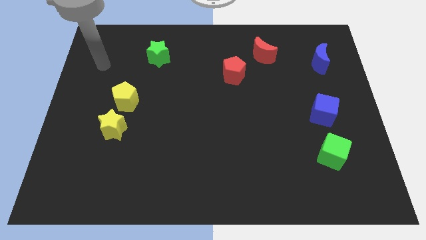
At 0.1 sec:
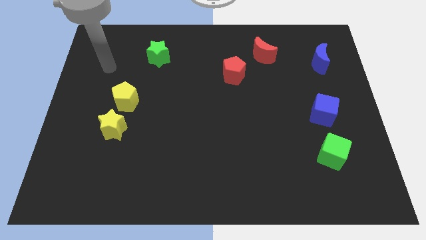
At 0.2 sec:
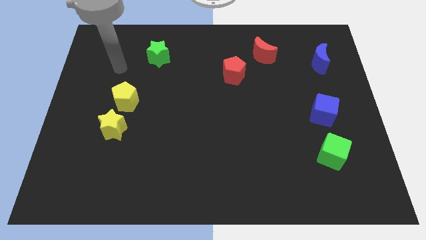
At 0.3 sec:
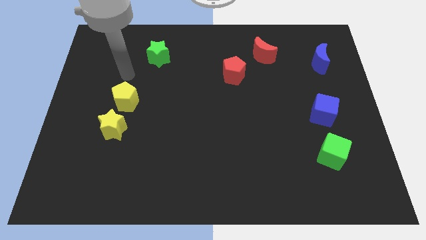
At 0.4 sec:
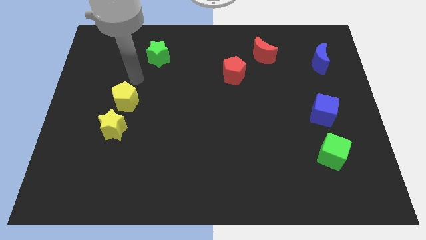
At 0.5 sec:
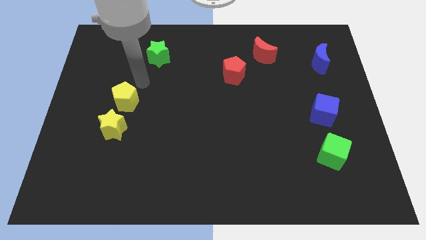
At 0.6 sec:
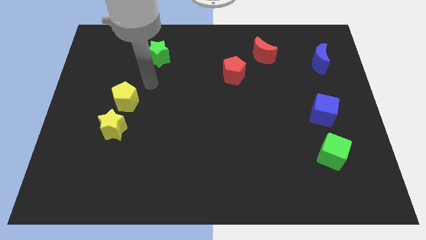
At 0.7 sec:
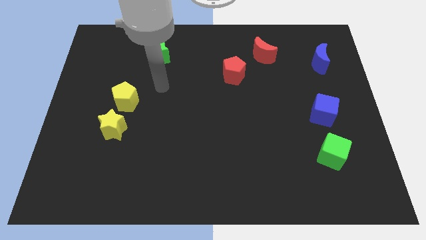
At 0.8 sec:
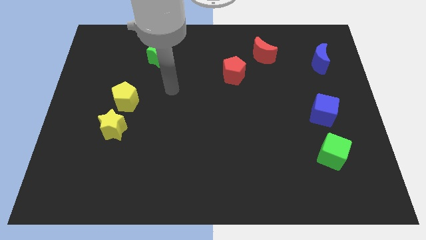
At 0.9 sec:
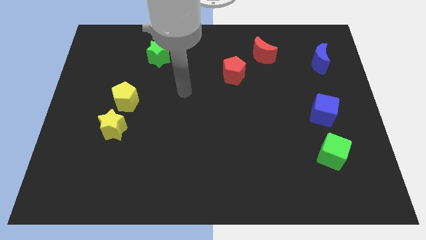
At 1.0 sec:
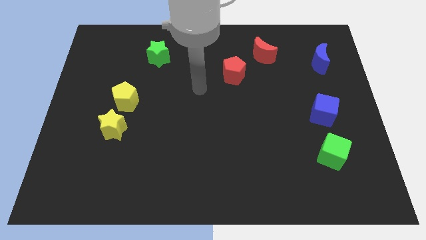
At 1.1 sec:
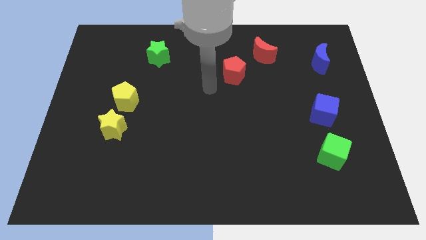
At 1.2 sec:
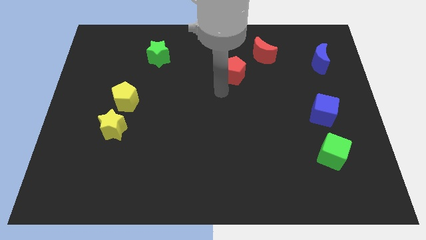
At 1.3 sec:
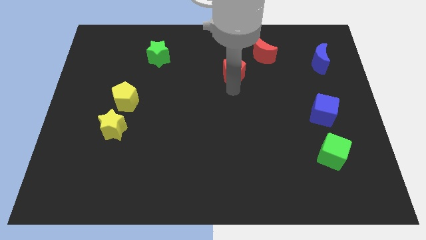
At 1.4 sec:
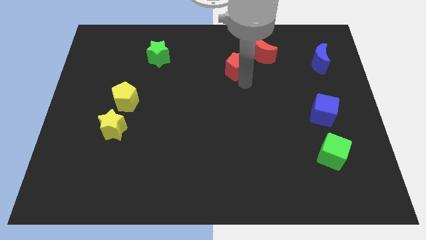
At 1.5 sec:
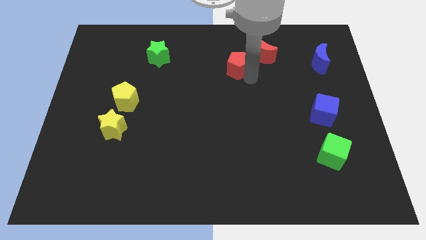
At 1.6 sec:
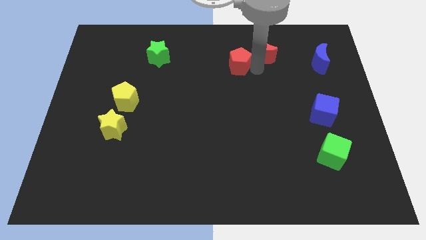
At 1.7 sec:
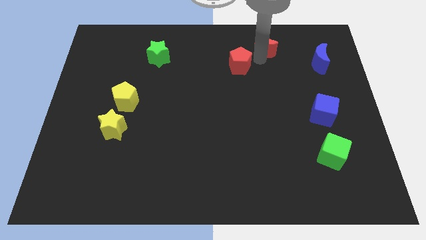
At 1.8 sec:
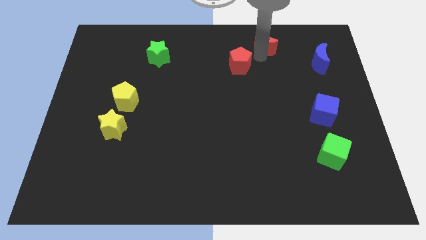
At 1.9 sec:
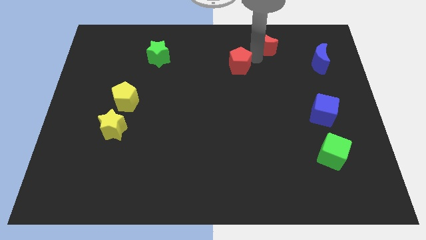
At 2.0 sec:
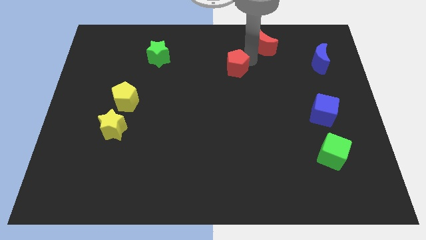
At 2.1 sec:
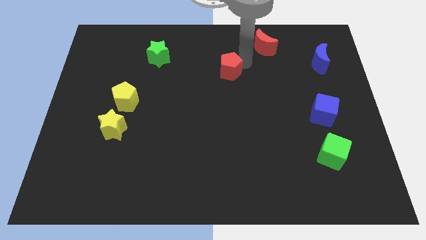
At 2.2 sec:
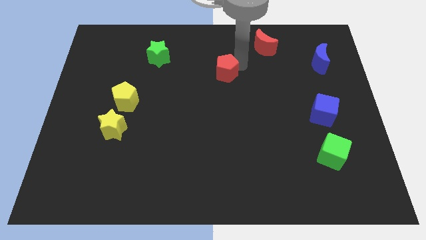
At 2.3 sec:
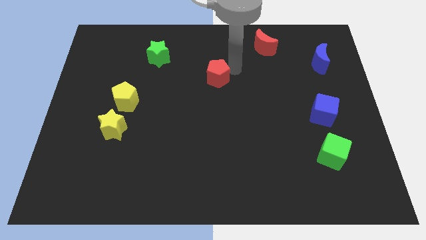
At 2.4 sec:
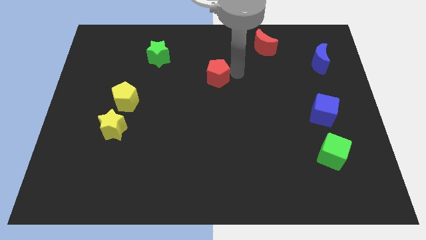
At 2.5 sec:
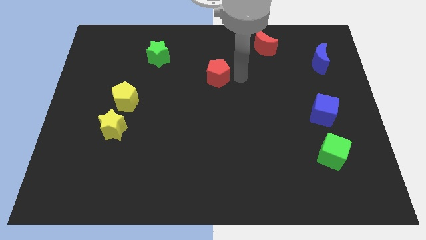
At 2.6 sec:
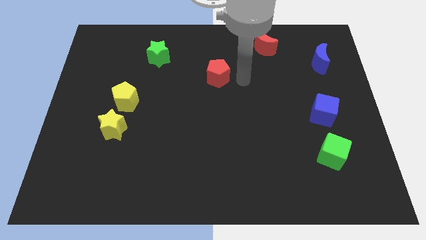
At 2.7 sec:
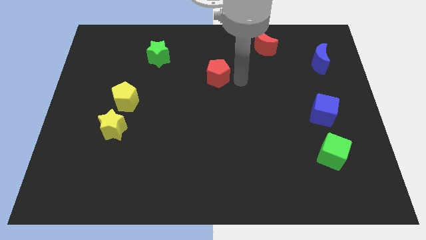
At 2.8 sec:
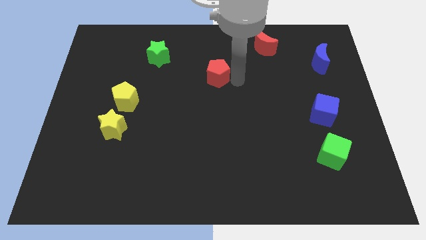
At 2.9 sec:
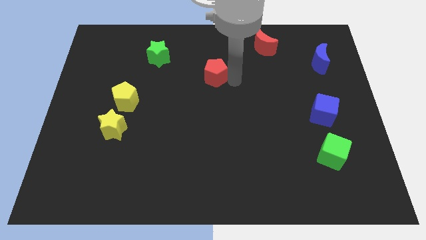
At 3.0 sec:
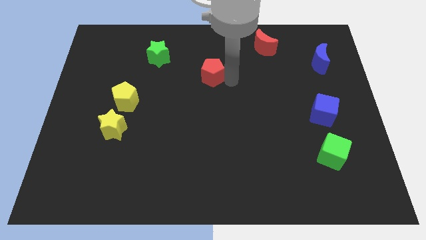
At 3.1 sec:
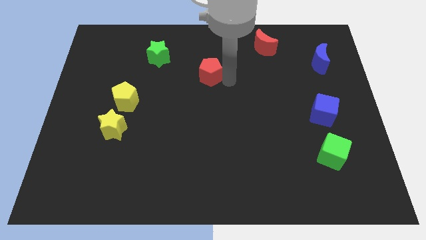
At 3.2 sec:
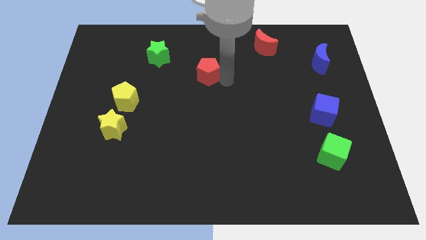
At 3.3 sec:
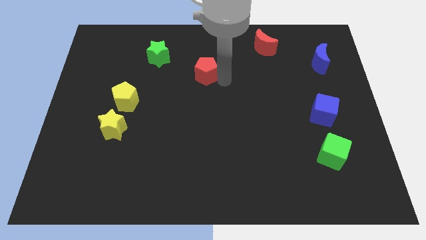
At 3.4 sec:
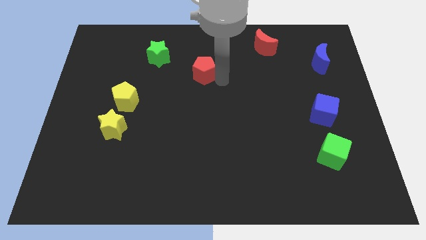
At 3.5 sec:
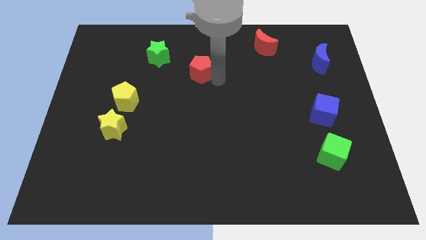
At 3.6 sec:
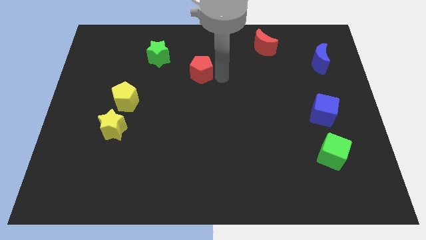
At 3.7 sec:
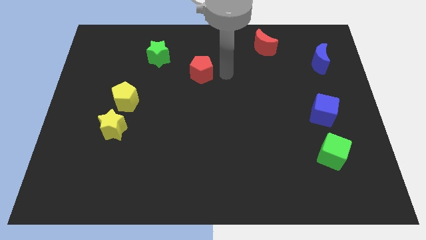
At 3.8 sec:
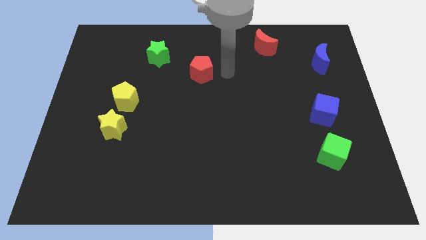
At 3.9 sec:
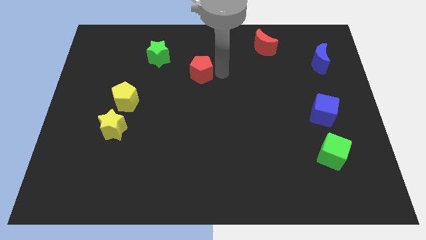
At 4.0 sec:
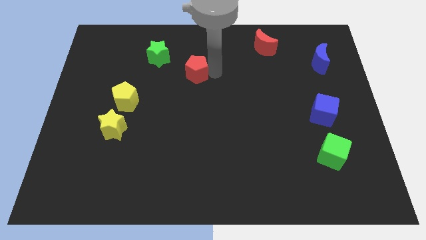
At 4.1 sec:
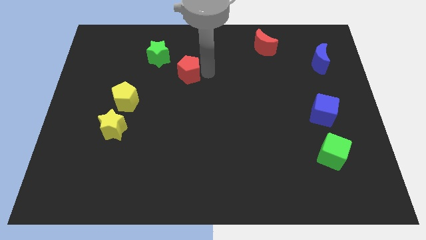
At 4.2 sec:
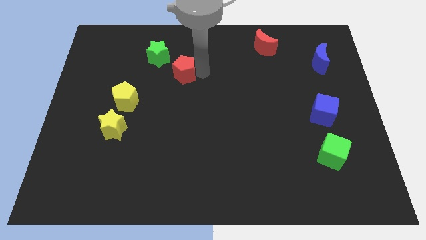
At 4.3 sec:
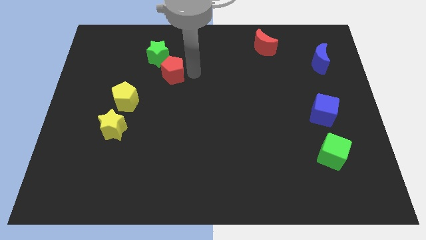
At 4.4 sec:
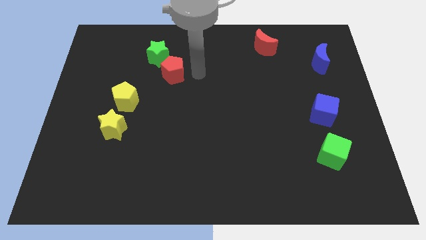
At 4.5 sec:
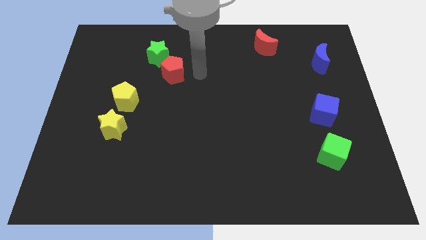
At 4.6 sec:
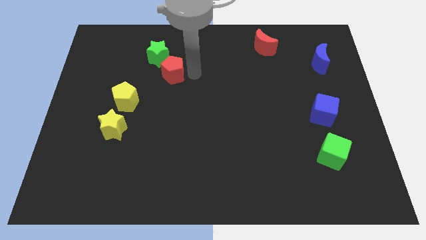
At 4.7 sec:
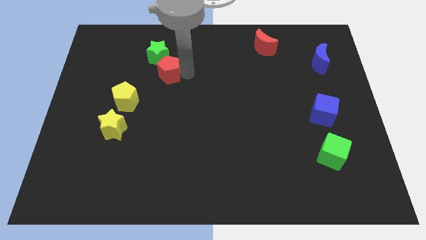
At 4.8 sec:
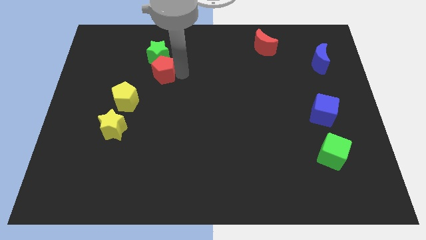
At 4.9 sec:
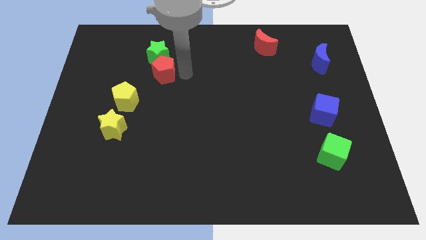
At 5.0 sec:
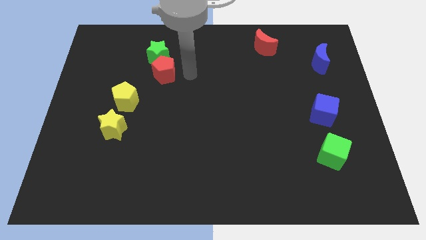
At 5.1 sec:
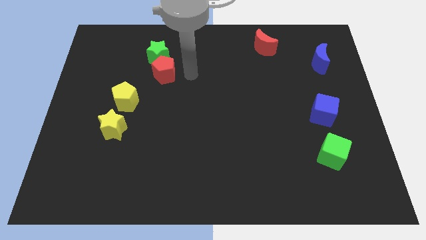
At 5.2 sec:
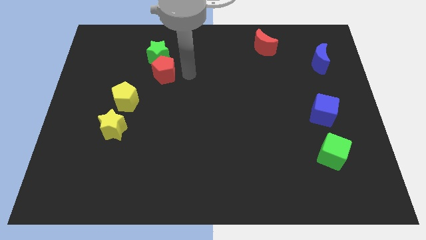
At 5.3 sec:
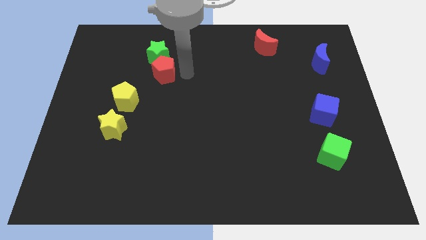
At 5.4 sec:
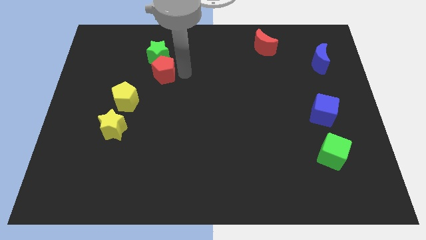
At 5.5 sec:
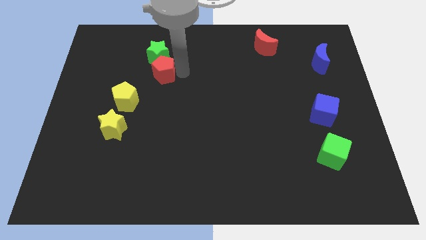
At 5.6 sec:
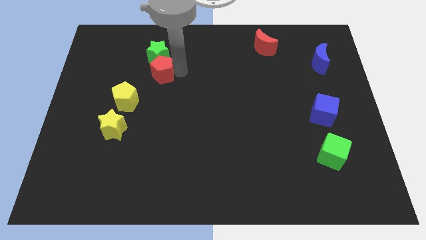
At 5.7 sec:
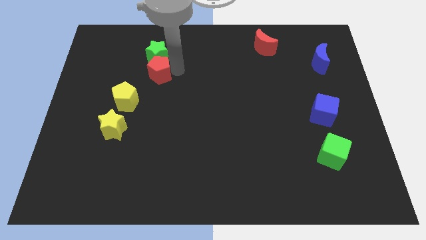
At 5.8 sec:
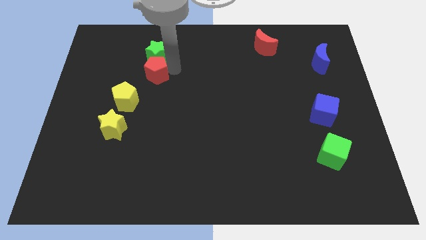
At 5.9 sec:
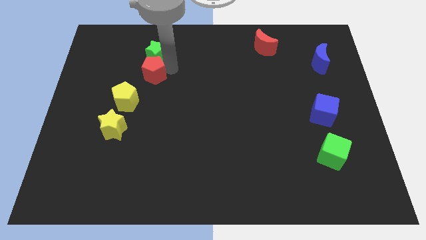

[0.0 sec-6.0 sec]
push the red pentagon to the left

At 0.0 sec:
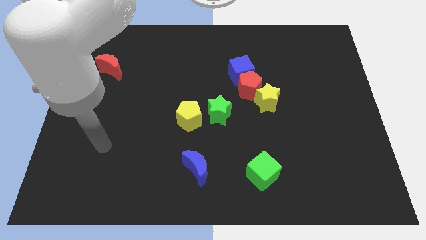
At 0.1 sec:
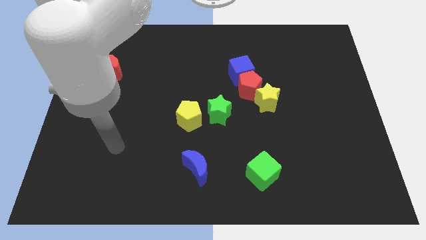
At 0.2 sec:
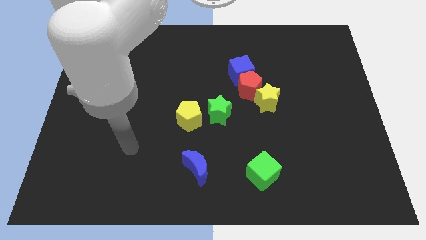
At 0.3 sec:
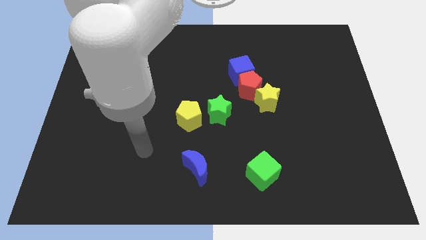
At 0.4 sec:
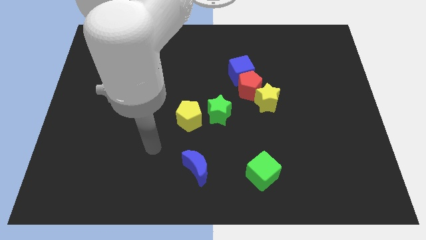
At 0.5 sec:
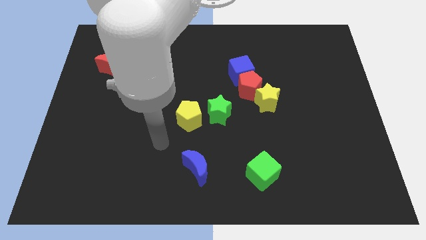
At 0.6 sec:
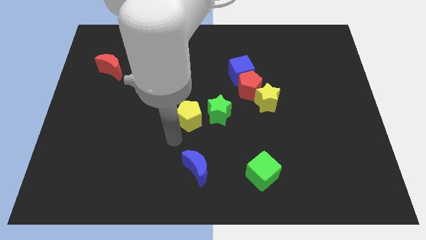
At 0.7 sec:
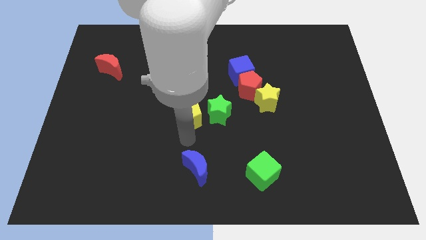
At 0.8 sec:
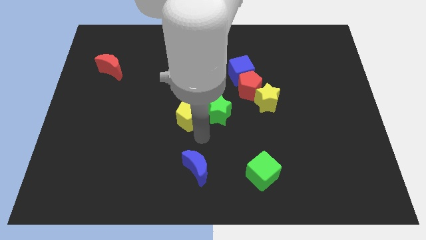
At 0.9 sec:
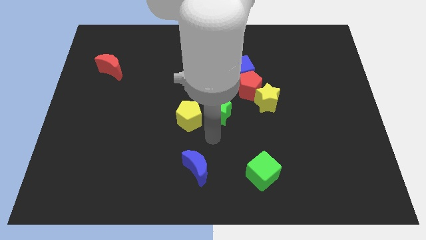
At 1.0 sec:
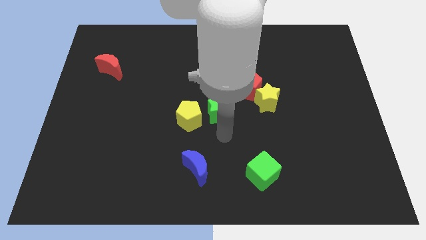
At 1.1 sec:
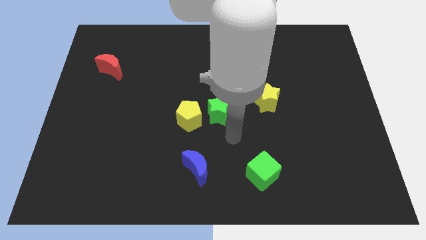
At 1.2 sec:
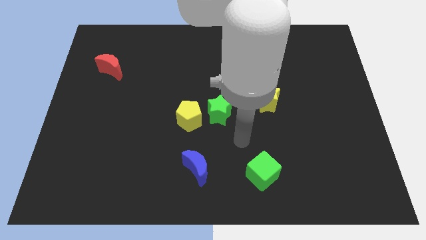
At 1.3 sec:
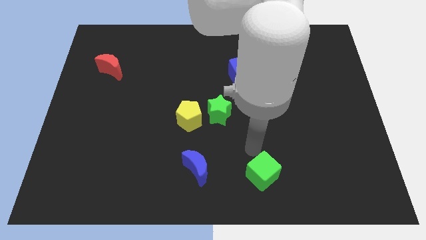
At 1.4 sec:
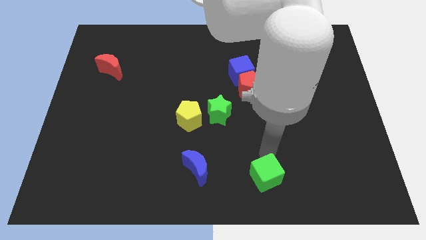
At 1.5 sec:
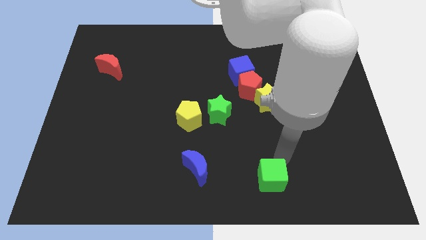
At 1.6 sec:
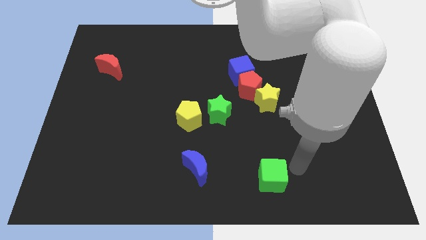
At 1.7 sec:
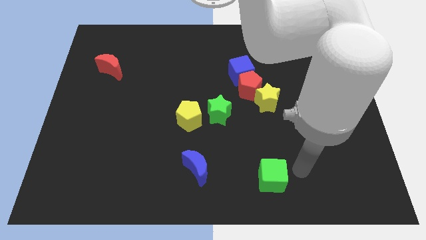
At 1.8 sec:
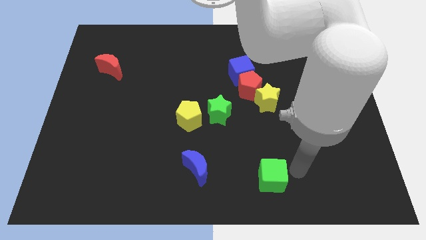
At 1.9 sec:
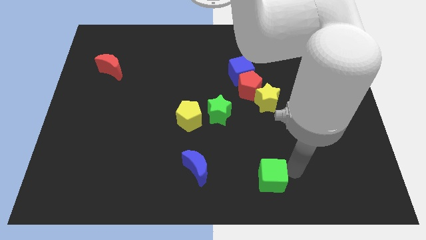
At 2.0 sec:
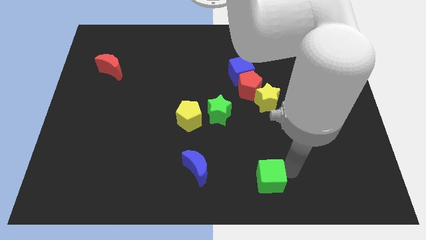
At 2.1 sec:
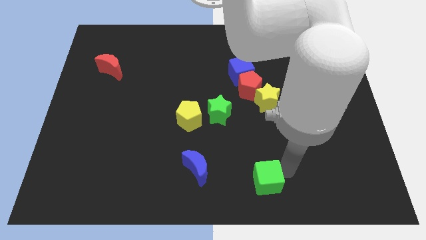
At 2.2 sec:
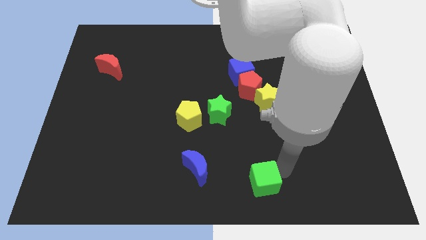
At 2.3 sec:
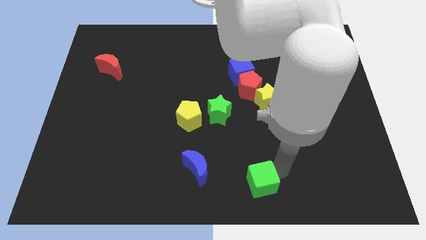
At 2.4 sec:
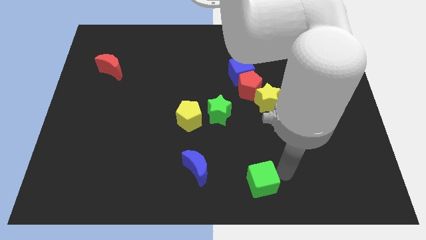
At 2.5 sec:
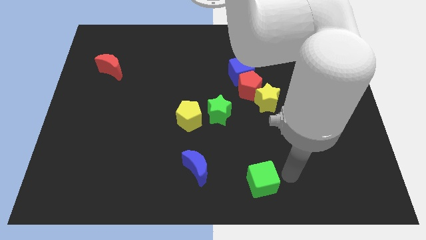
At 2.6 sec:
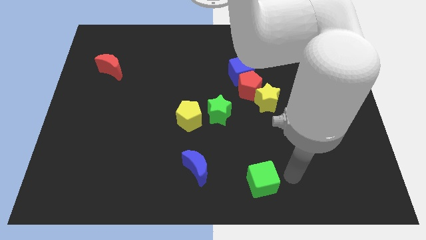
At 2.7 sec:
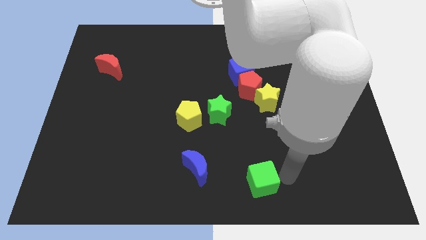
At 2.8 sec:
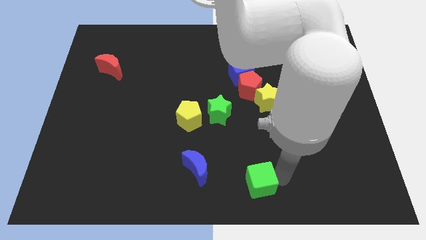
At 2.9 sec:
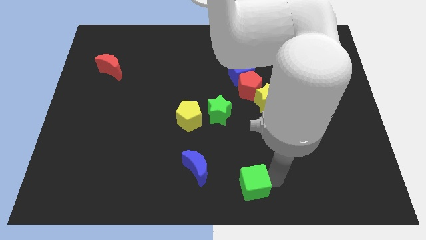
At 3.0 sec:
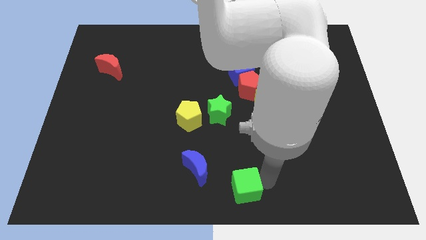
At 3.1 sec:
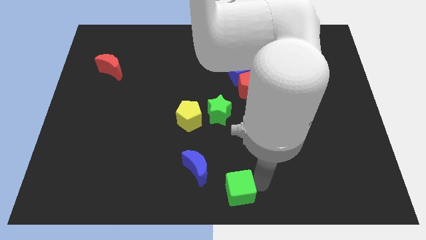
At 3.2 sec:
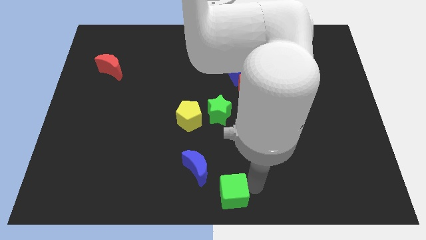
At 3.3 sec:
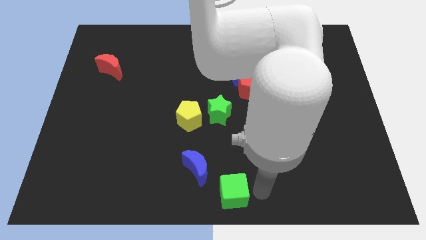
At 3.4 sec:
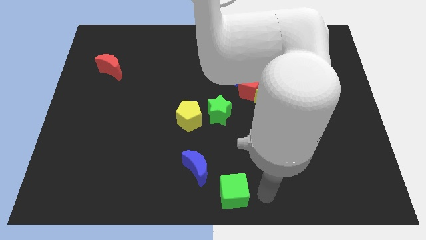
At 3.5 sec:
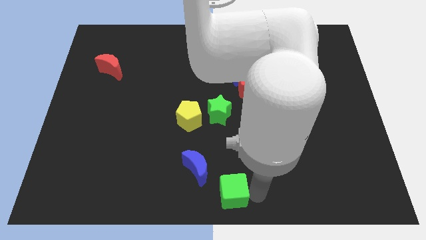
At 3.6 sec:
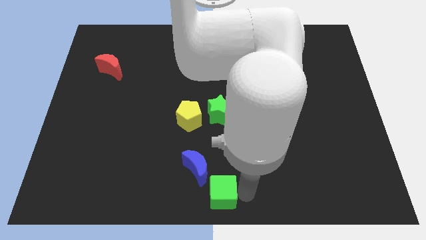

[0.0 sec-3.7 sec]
push the green cube a little bit left
